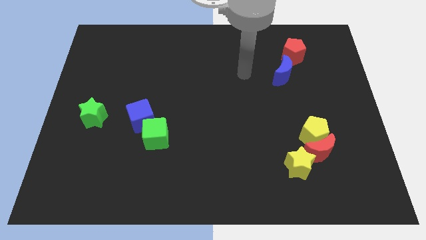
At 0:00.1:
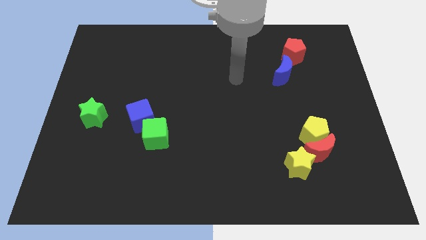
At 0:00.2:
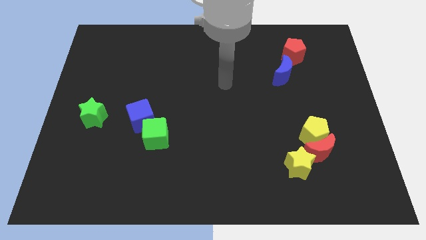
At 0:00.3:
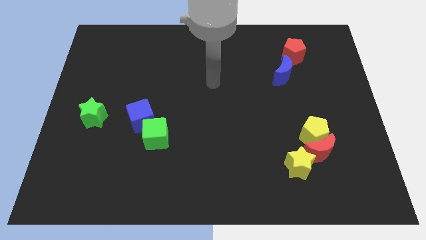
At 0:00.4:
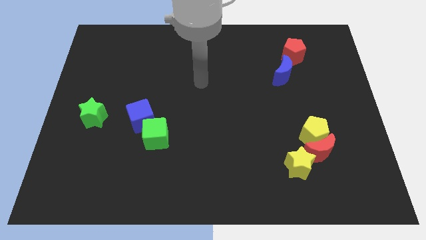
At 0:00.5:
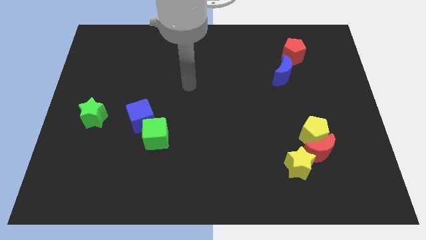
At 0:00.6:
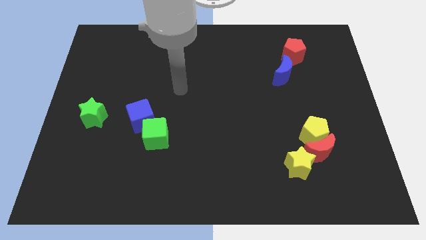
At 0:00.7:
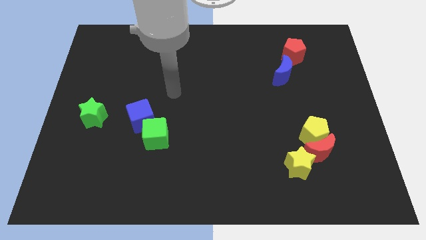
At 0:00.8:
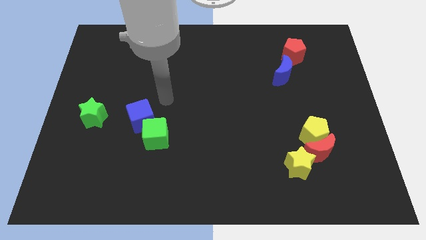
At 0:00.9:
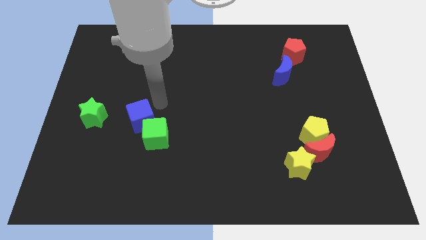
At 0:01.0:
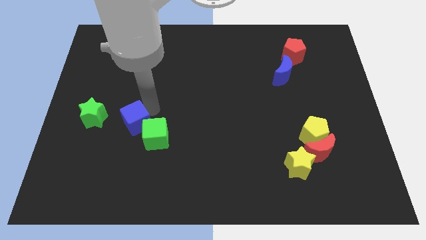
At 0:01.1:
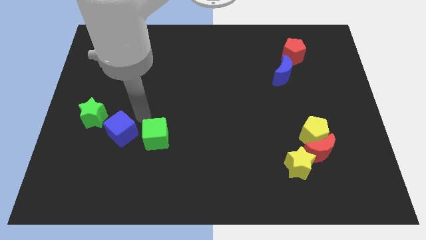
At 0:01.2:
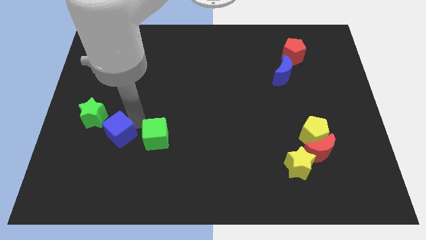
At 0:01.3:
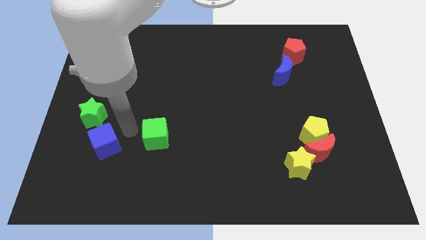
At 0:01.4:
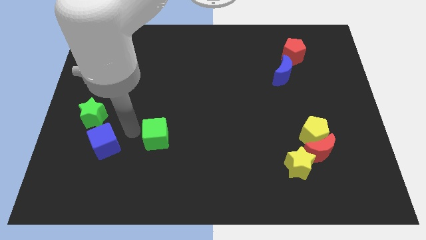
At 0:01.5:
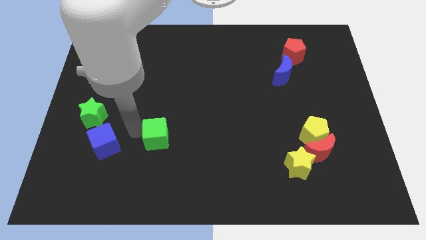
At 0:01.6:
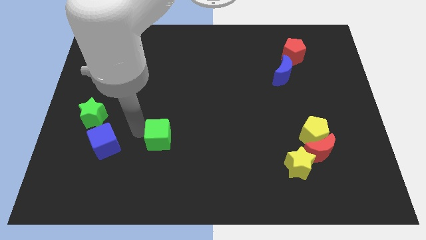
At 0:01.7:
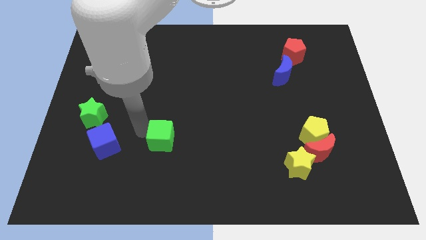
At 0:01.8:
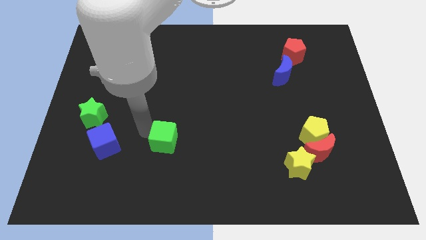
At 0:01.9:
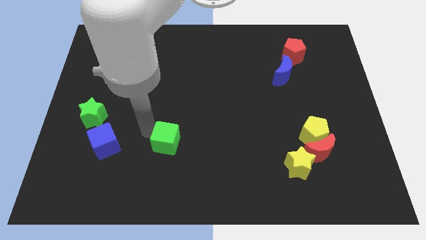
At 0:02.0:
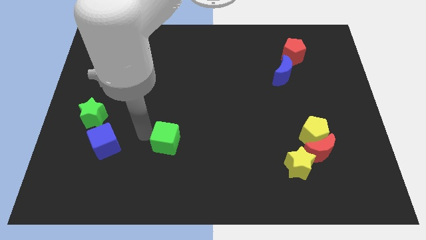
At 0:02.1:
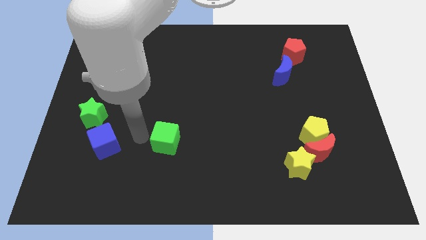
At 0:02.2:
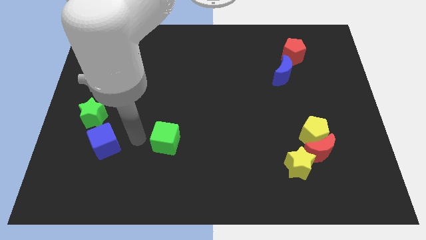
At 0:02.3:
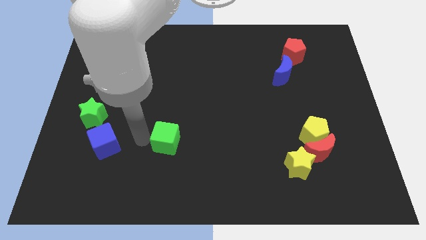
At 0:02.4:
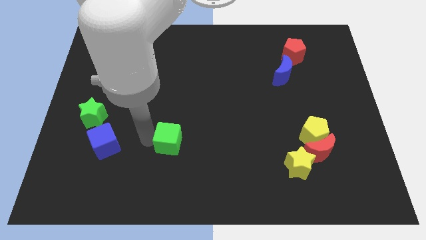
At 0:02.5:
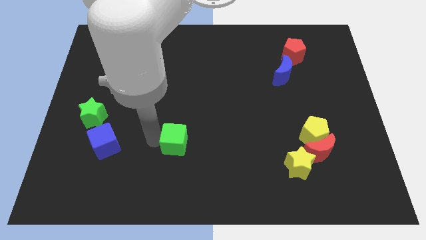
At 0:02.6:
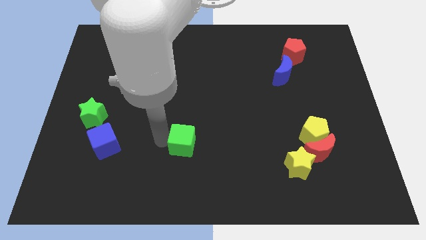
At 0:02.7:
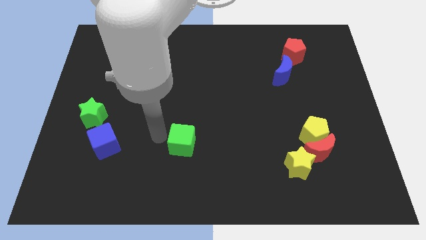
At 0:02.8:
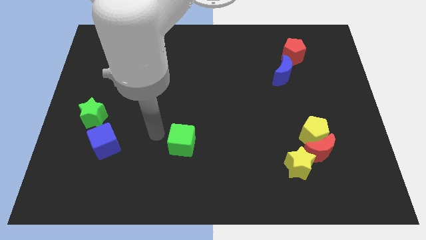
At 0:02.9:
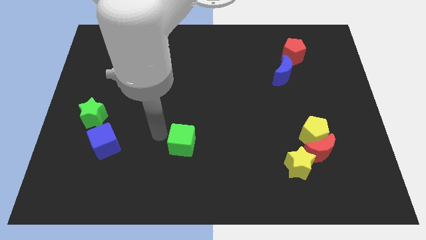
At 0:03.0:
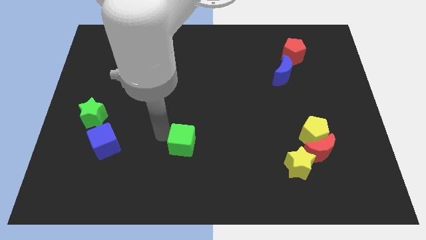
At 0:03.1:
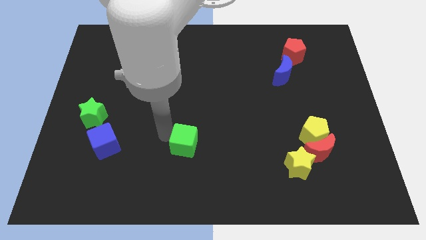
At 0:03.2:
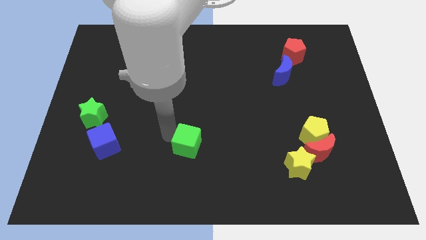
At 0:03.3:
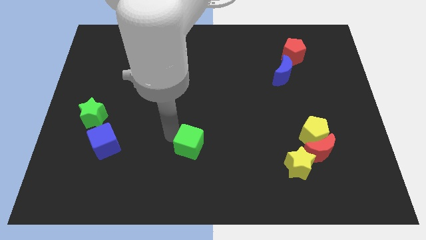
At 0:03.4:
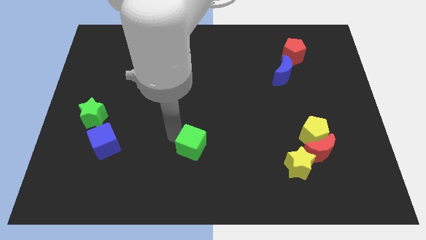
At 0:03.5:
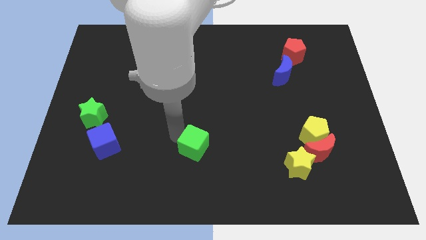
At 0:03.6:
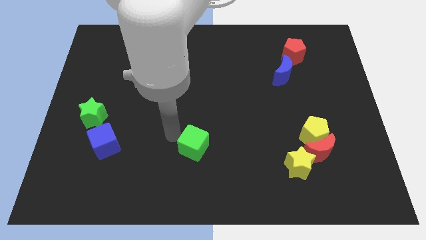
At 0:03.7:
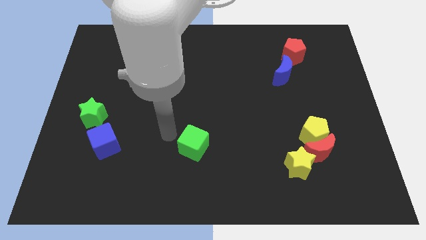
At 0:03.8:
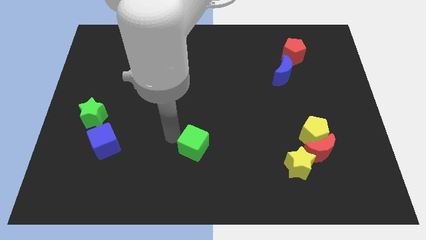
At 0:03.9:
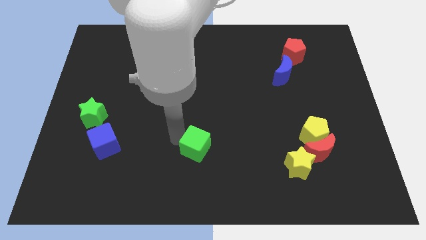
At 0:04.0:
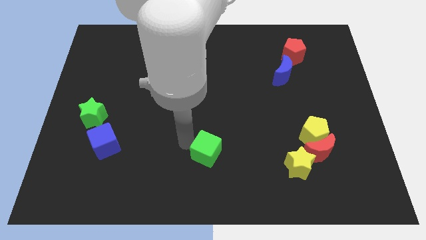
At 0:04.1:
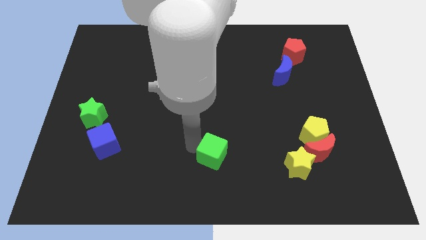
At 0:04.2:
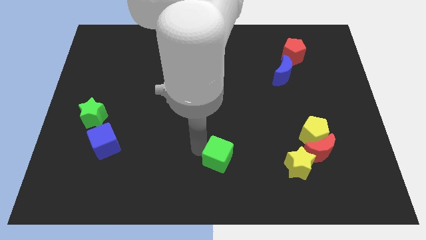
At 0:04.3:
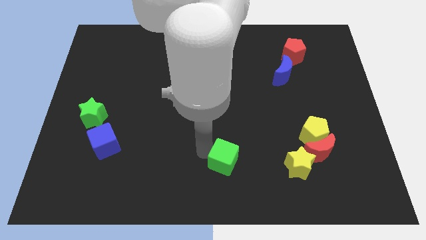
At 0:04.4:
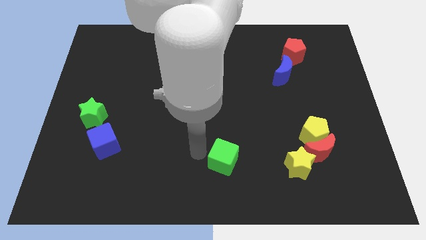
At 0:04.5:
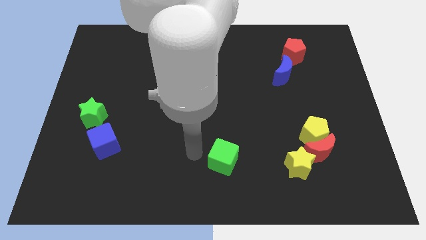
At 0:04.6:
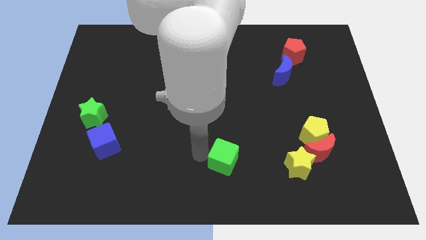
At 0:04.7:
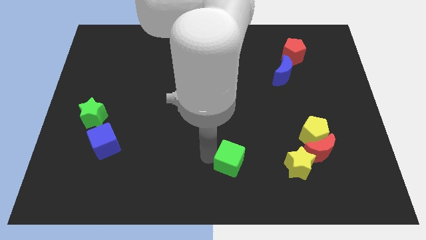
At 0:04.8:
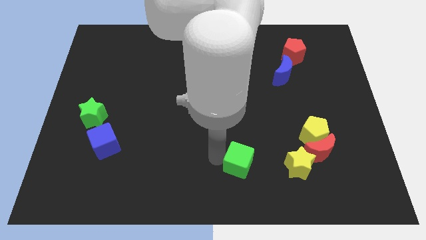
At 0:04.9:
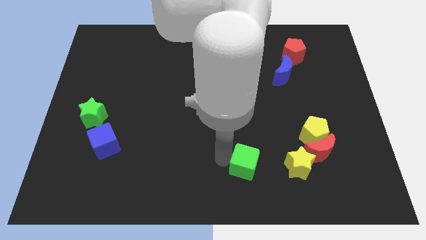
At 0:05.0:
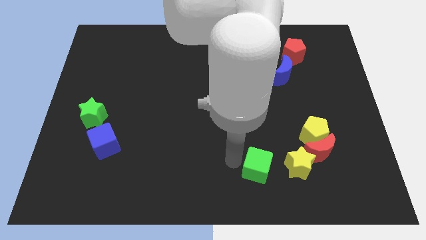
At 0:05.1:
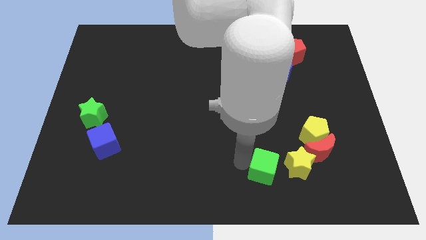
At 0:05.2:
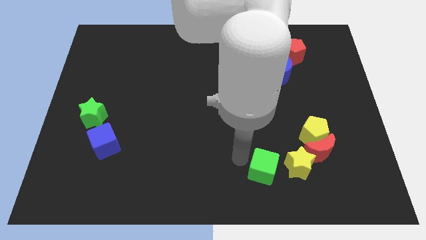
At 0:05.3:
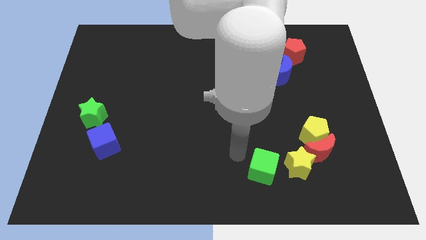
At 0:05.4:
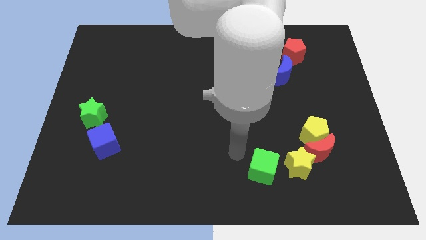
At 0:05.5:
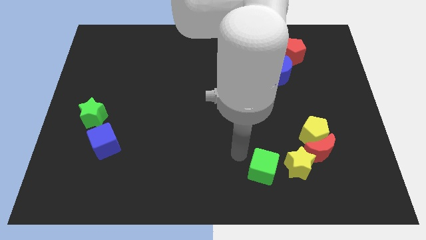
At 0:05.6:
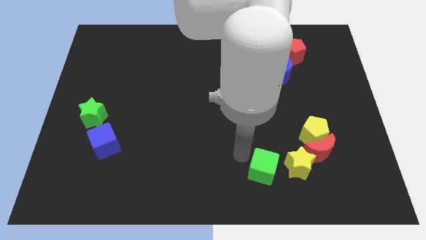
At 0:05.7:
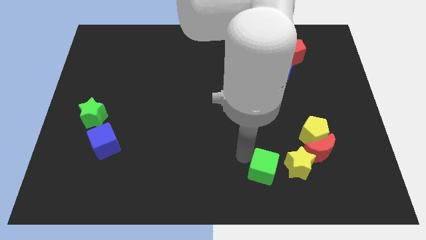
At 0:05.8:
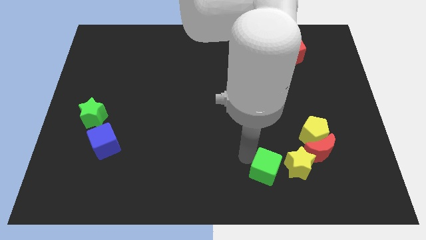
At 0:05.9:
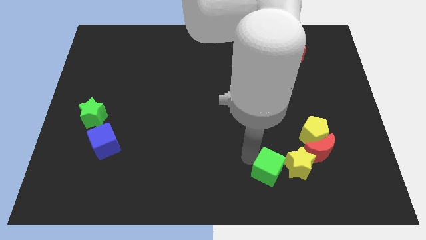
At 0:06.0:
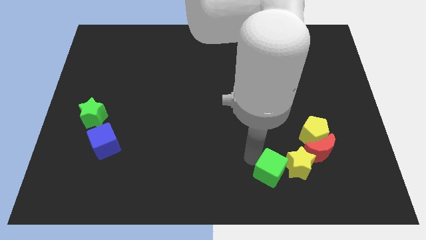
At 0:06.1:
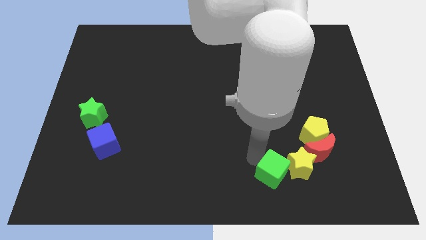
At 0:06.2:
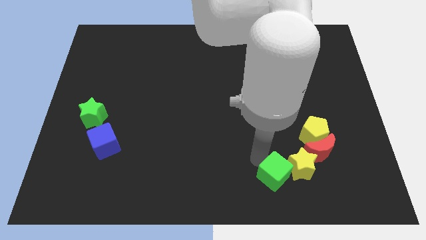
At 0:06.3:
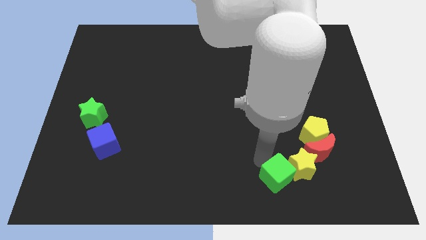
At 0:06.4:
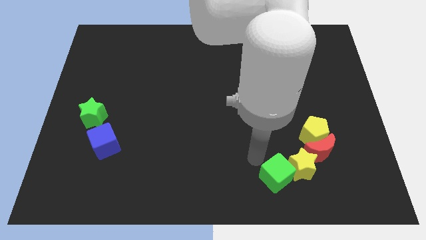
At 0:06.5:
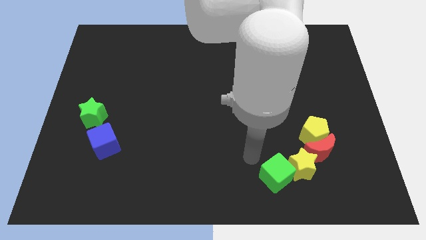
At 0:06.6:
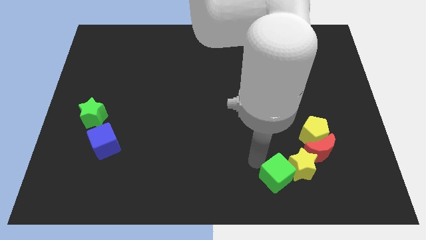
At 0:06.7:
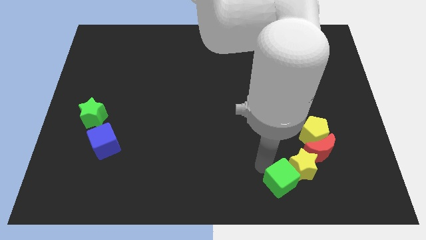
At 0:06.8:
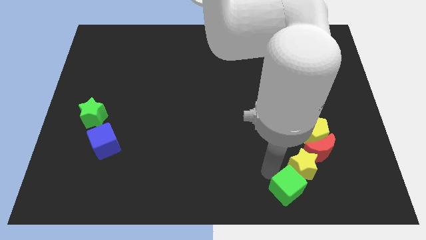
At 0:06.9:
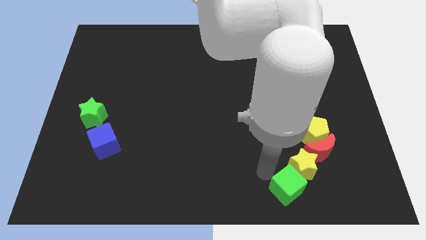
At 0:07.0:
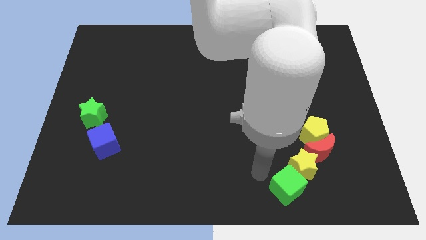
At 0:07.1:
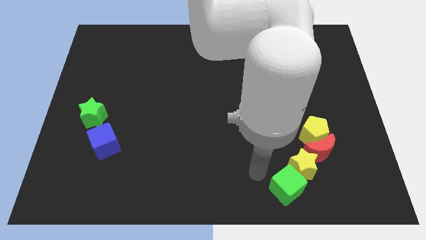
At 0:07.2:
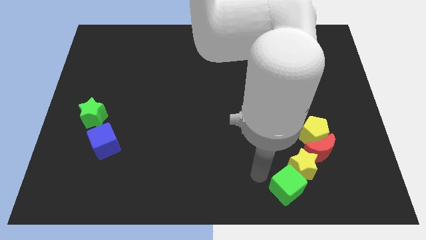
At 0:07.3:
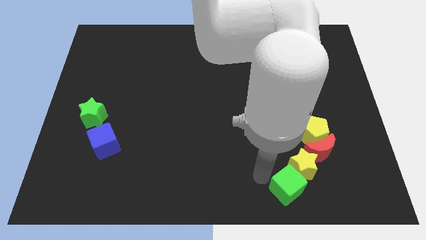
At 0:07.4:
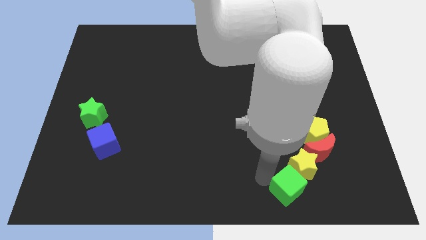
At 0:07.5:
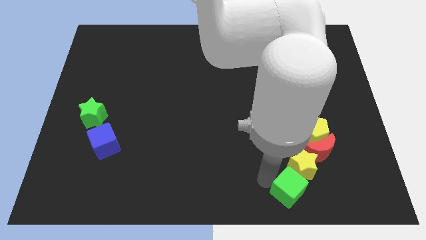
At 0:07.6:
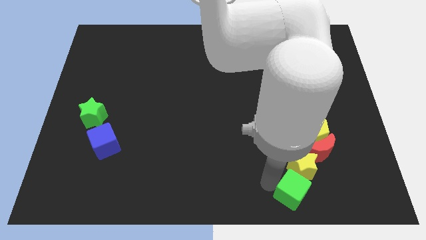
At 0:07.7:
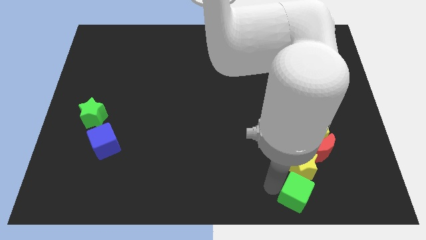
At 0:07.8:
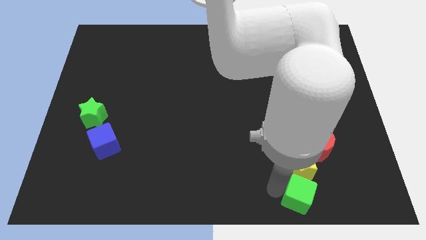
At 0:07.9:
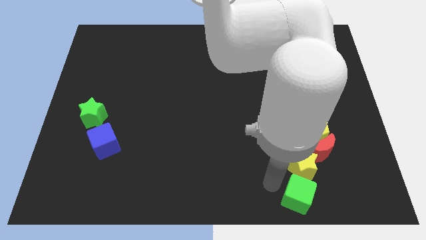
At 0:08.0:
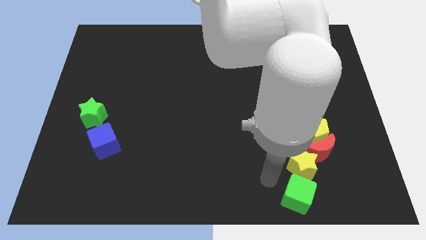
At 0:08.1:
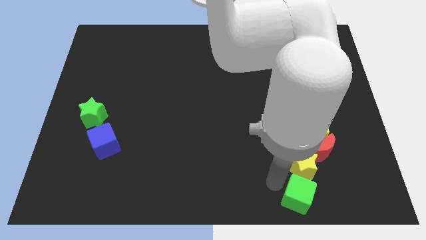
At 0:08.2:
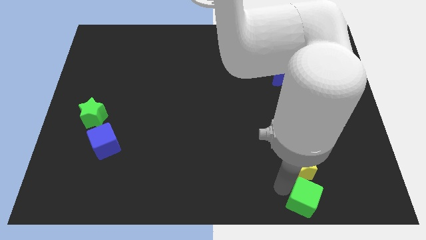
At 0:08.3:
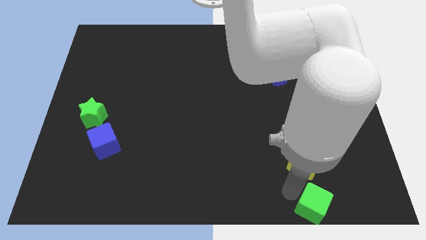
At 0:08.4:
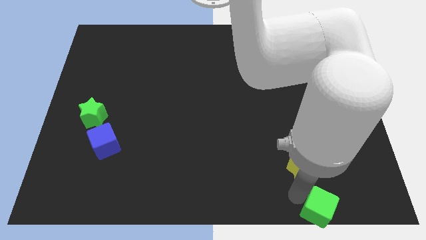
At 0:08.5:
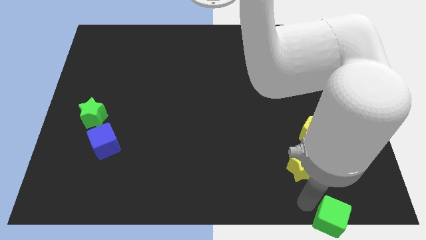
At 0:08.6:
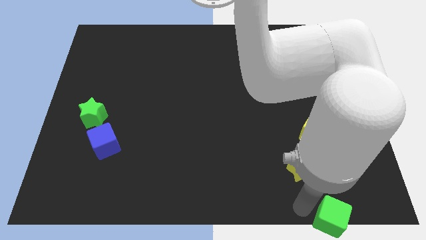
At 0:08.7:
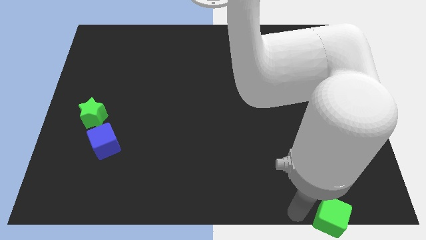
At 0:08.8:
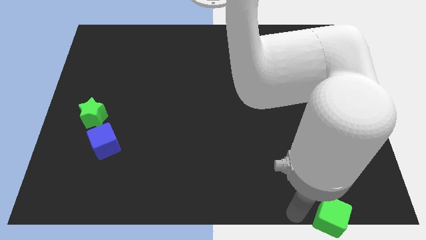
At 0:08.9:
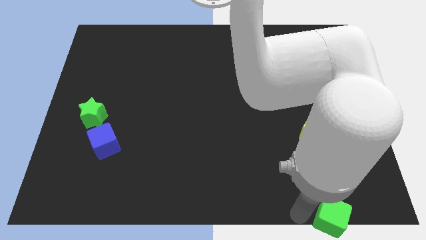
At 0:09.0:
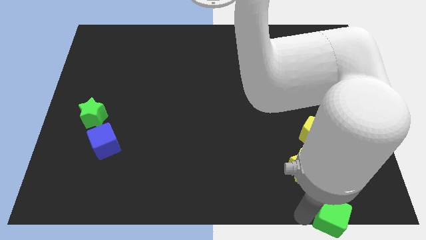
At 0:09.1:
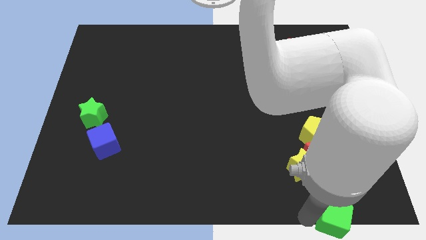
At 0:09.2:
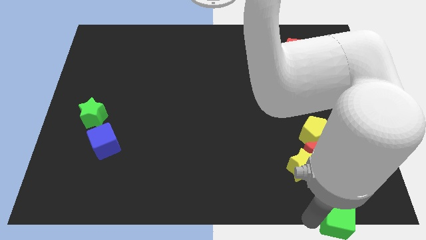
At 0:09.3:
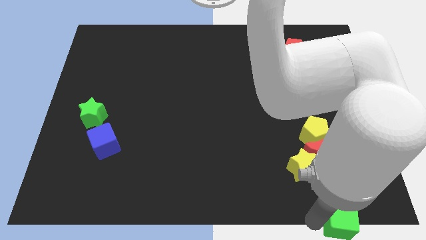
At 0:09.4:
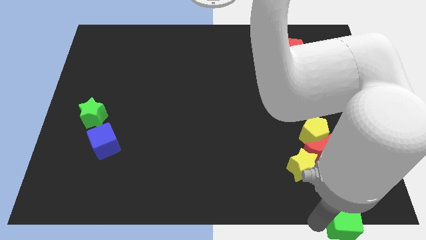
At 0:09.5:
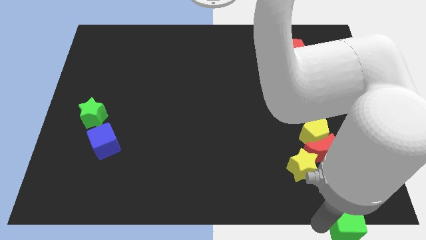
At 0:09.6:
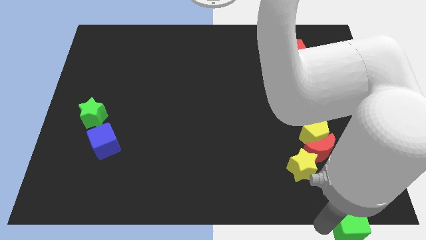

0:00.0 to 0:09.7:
move the green cube to the bottom right
